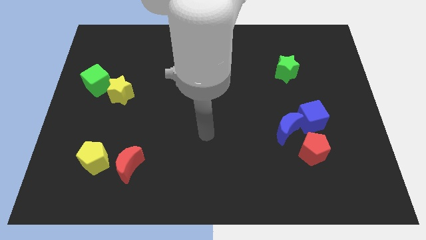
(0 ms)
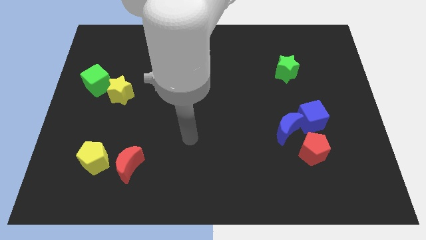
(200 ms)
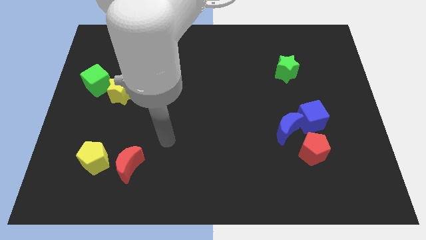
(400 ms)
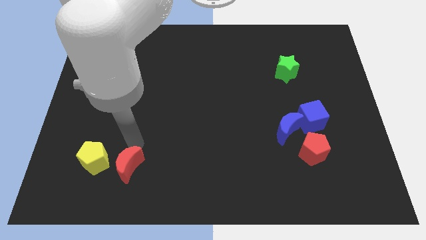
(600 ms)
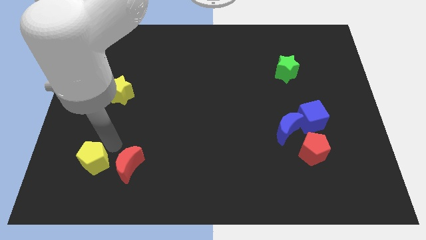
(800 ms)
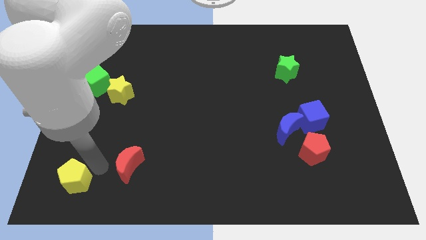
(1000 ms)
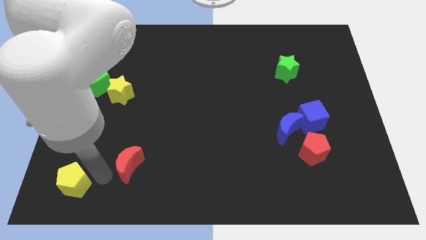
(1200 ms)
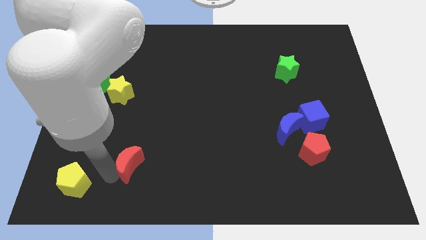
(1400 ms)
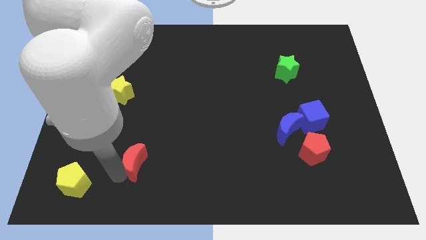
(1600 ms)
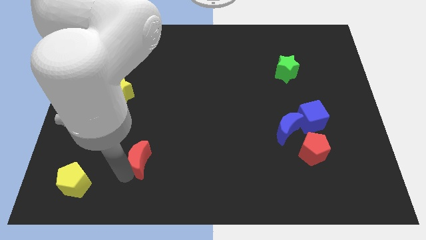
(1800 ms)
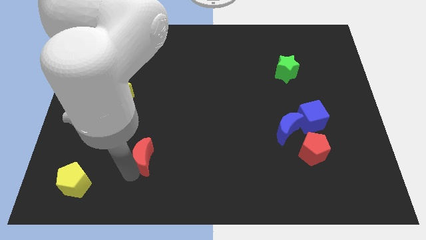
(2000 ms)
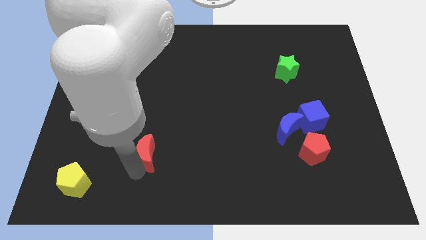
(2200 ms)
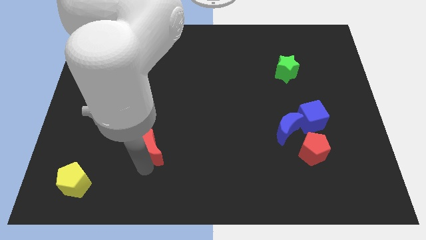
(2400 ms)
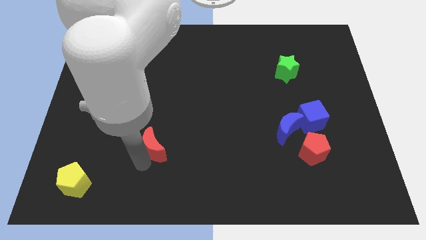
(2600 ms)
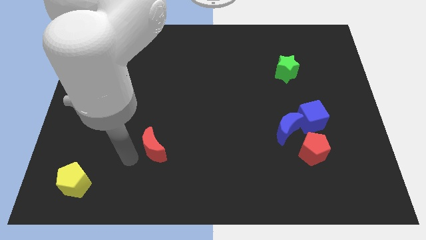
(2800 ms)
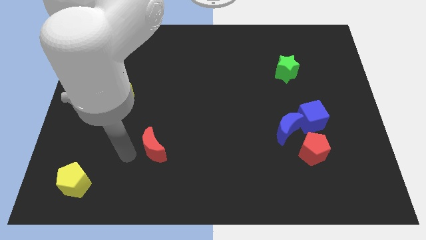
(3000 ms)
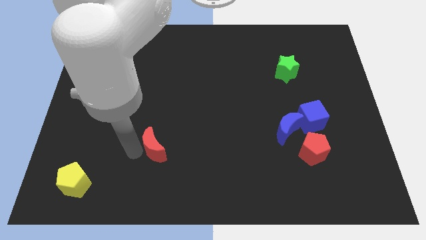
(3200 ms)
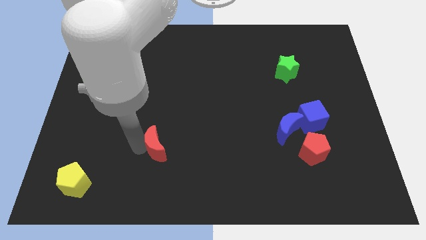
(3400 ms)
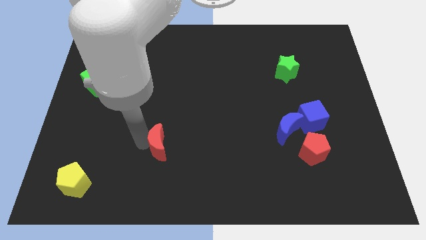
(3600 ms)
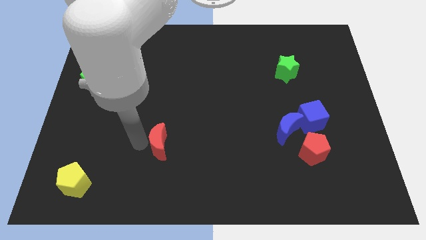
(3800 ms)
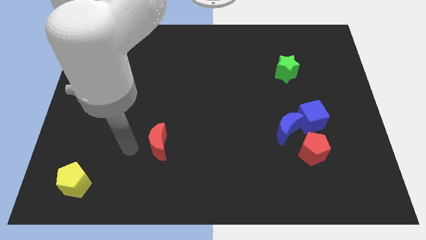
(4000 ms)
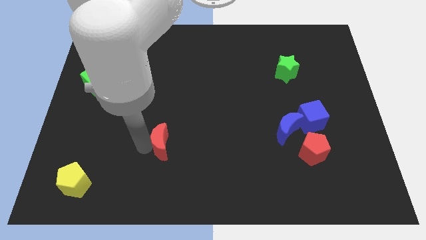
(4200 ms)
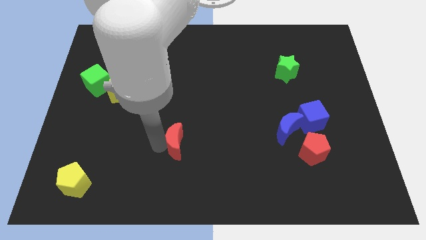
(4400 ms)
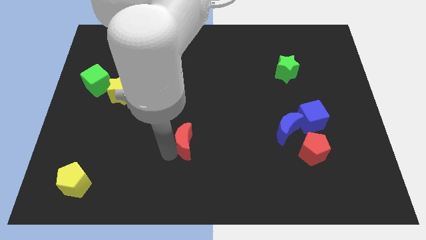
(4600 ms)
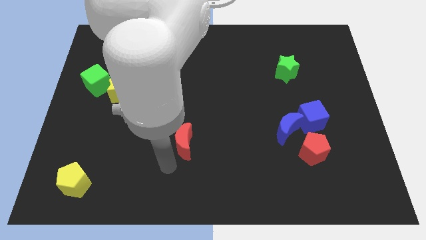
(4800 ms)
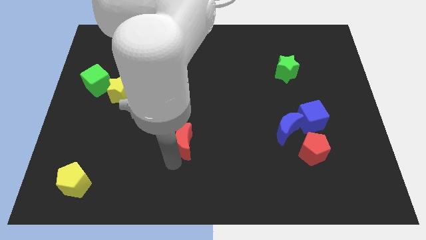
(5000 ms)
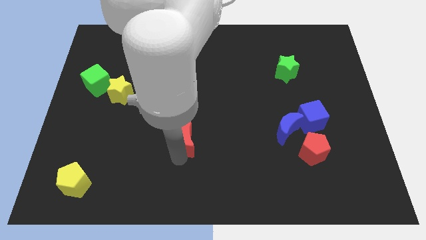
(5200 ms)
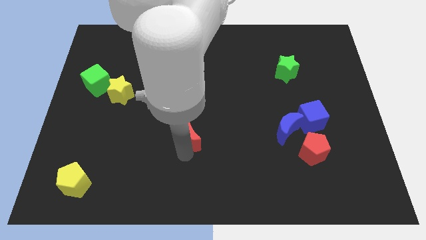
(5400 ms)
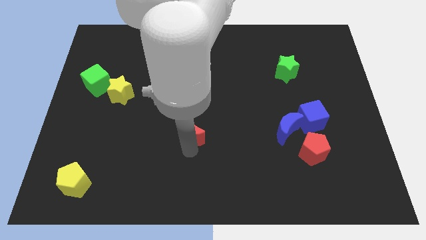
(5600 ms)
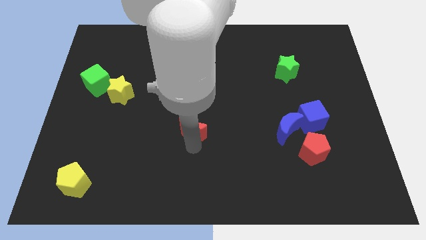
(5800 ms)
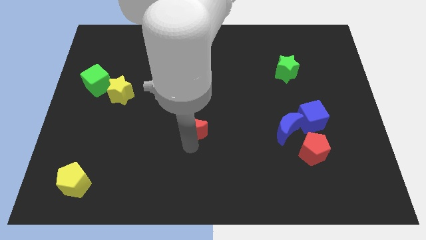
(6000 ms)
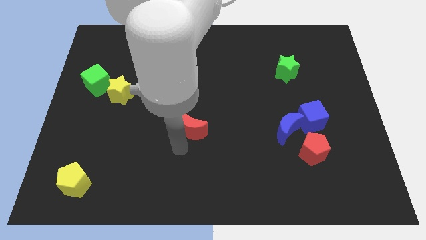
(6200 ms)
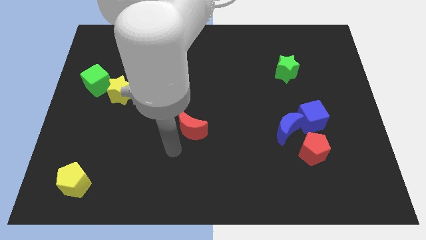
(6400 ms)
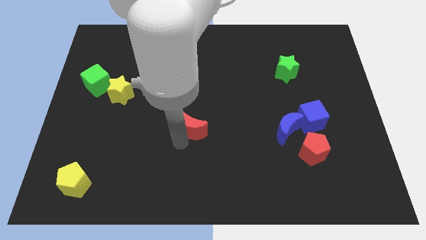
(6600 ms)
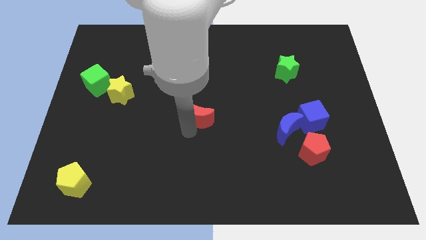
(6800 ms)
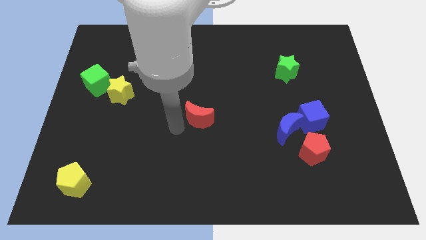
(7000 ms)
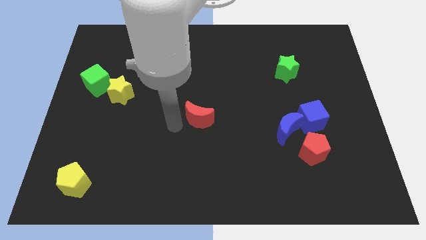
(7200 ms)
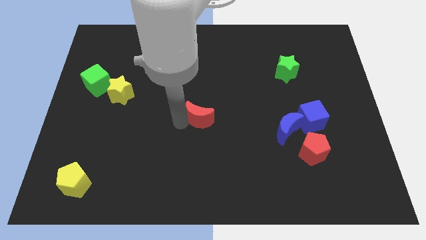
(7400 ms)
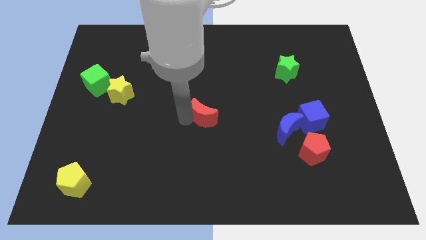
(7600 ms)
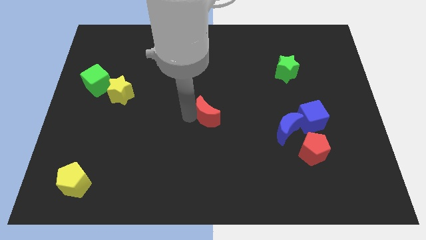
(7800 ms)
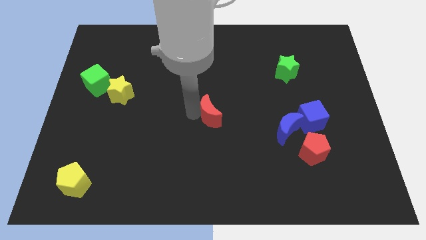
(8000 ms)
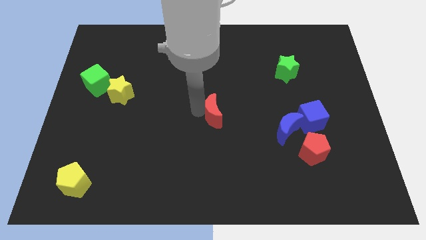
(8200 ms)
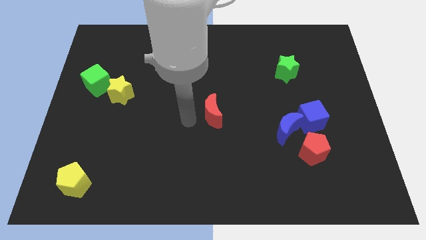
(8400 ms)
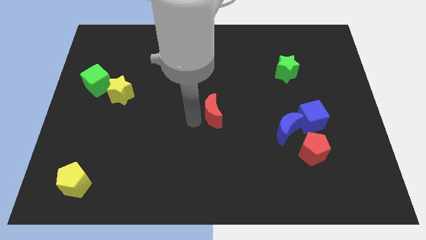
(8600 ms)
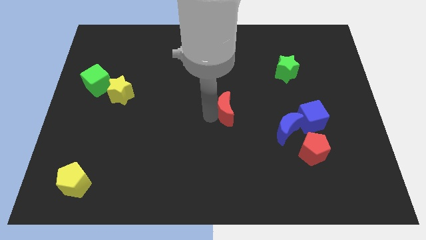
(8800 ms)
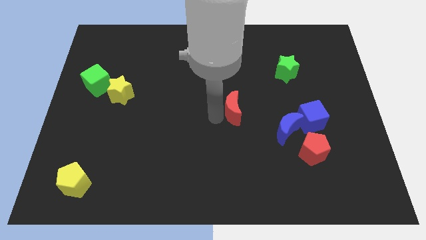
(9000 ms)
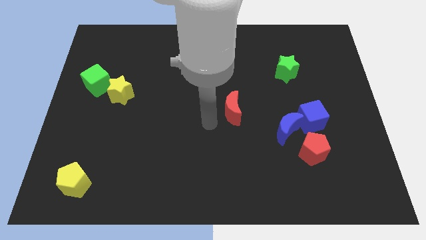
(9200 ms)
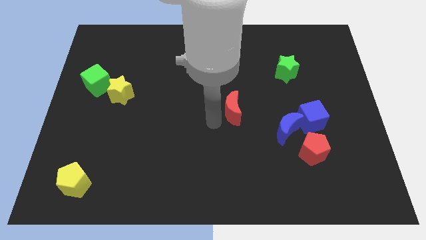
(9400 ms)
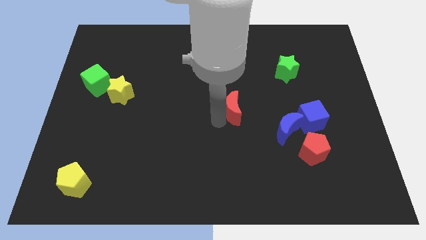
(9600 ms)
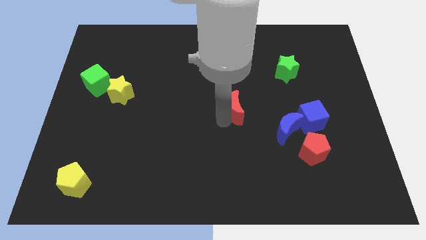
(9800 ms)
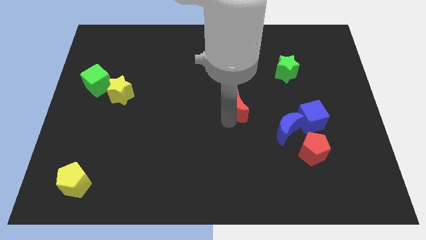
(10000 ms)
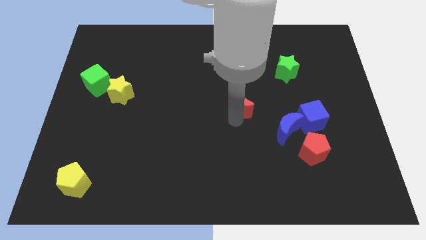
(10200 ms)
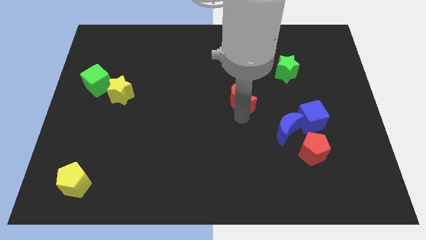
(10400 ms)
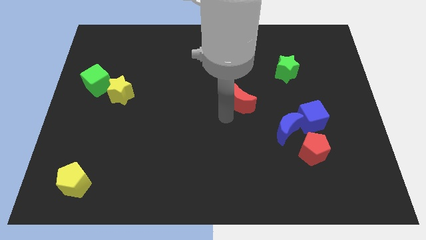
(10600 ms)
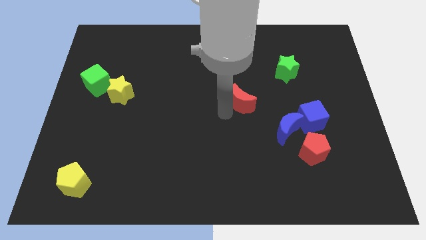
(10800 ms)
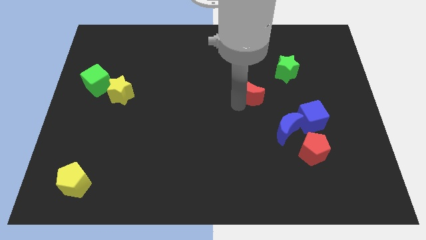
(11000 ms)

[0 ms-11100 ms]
move the red moon to the bottom left side of the green star

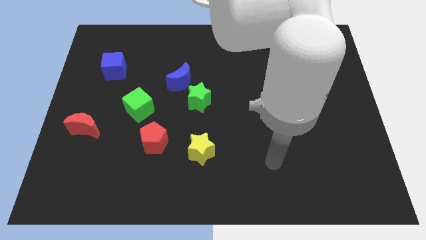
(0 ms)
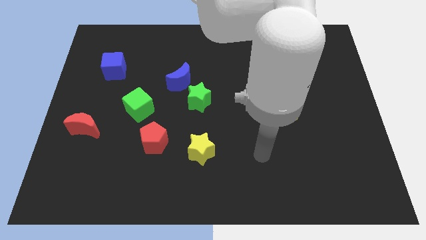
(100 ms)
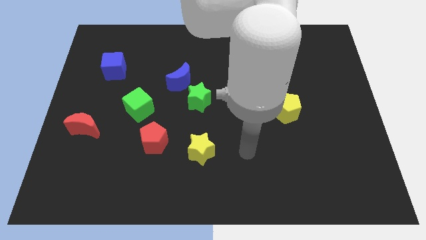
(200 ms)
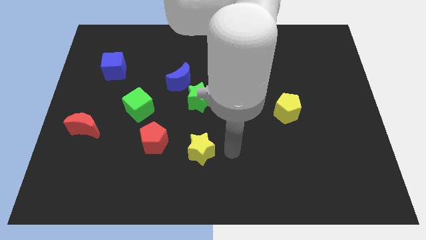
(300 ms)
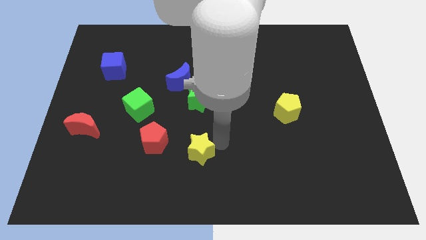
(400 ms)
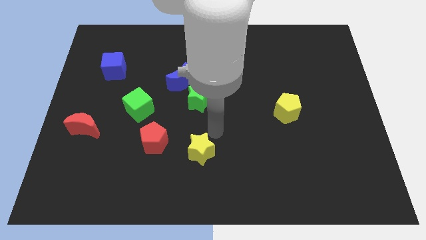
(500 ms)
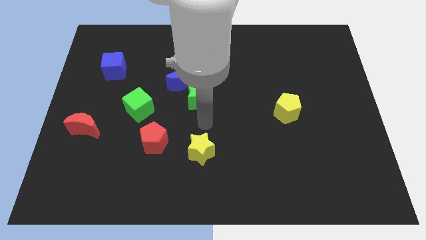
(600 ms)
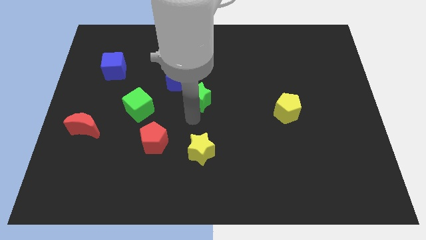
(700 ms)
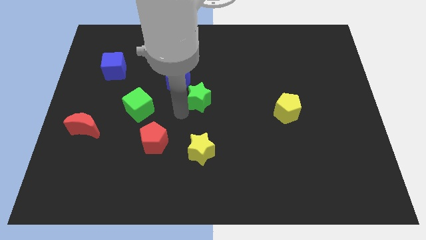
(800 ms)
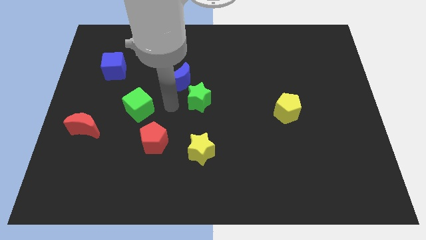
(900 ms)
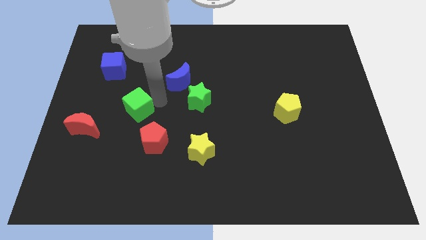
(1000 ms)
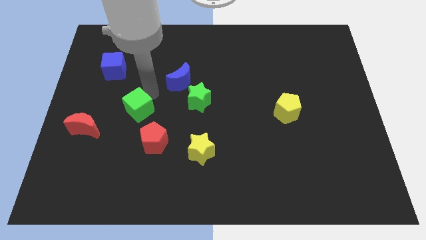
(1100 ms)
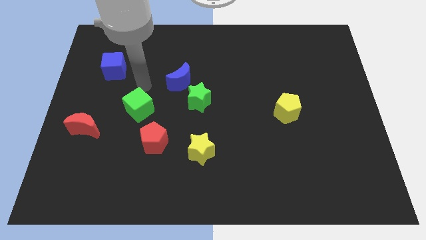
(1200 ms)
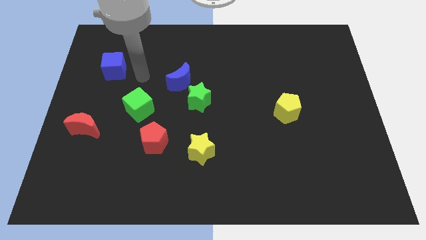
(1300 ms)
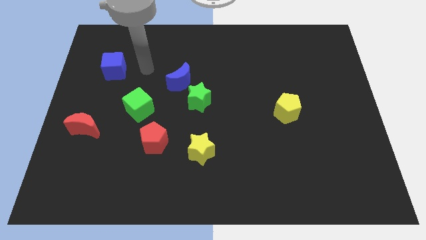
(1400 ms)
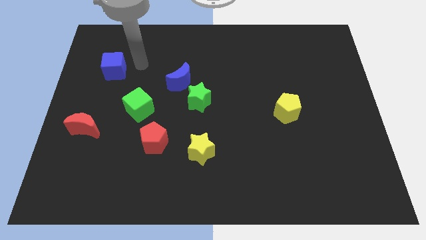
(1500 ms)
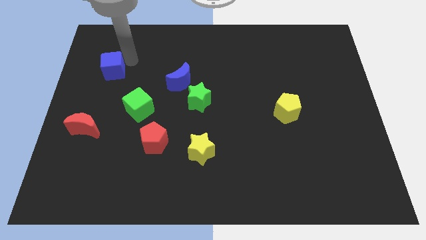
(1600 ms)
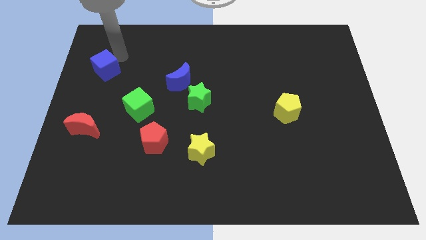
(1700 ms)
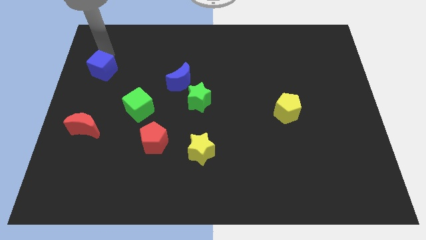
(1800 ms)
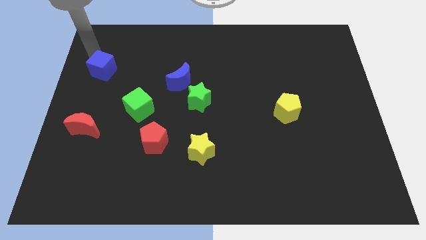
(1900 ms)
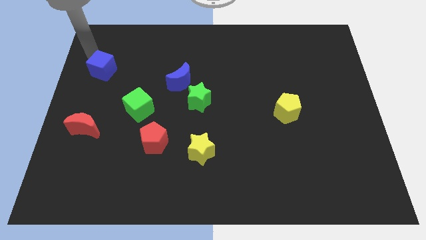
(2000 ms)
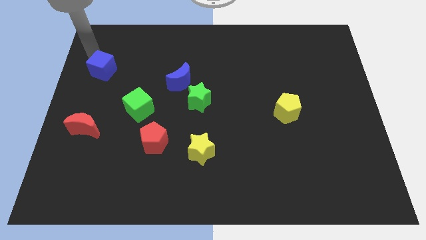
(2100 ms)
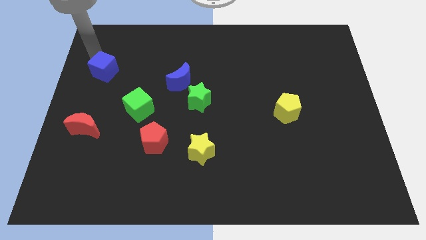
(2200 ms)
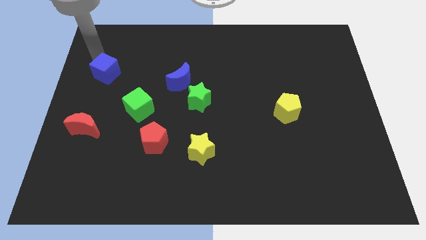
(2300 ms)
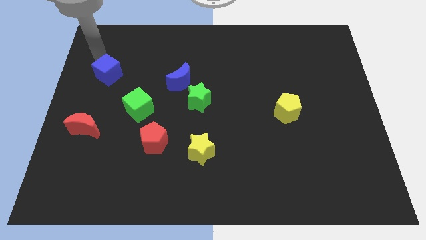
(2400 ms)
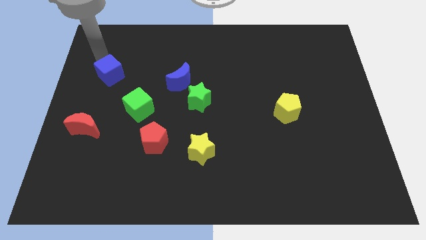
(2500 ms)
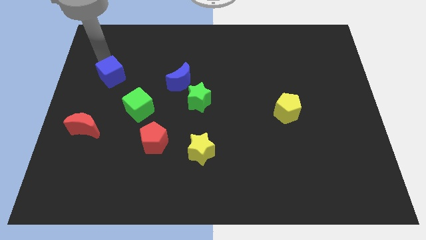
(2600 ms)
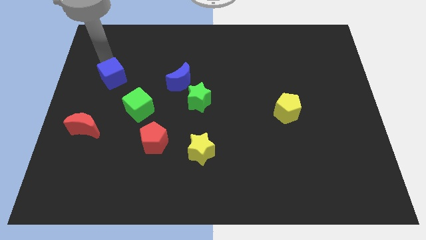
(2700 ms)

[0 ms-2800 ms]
put the blue cube to the top left side of the green cube
